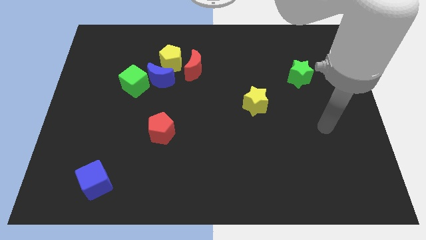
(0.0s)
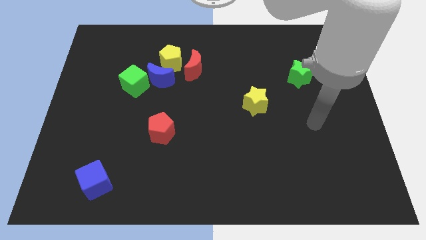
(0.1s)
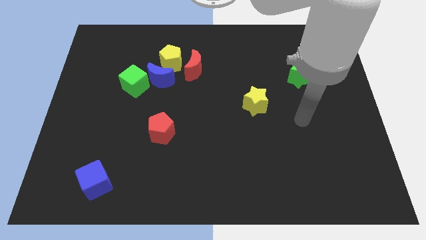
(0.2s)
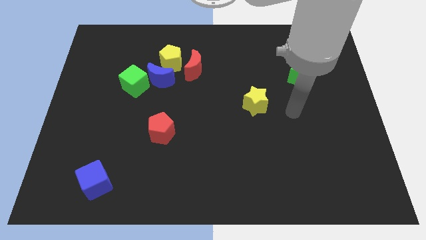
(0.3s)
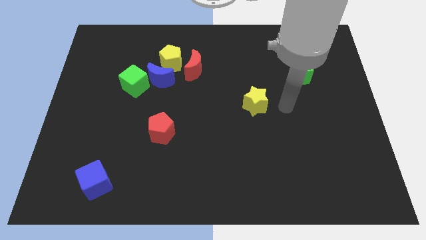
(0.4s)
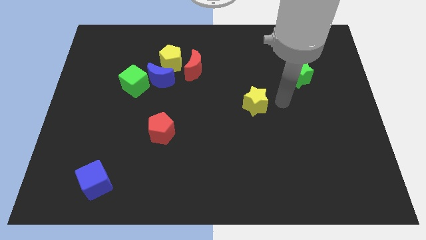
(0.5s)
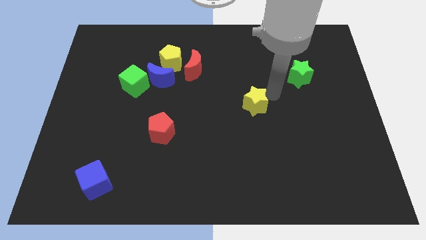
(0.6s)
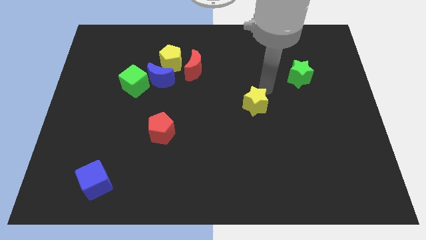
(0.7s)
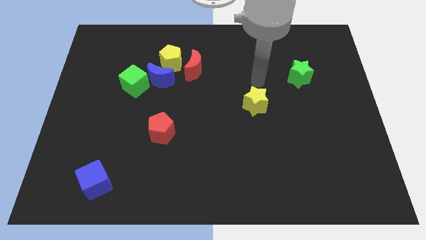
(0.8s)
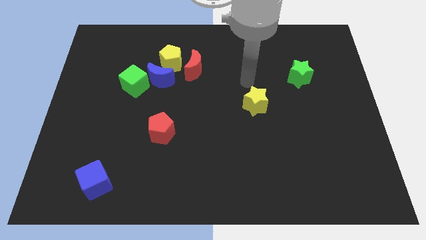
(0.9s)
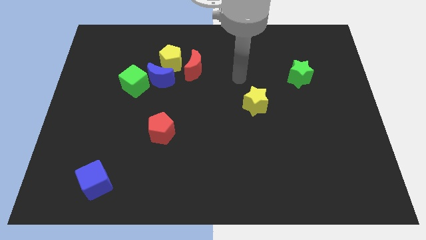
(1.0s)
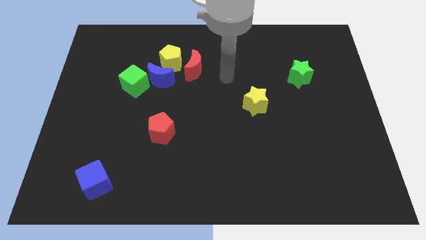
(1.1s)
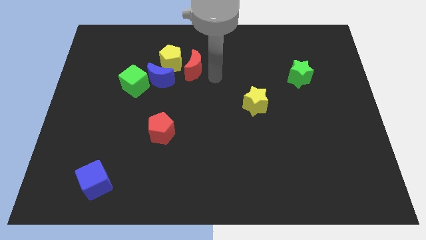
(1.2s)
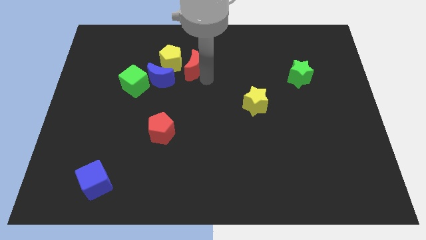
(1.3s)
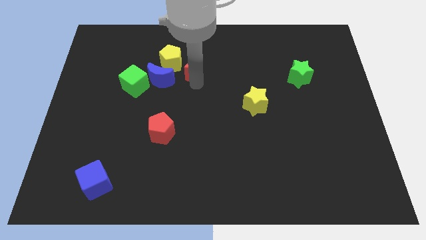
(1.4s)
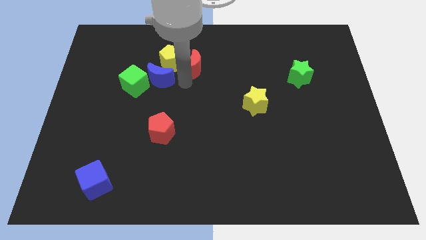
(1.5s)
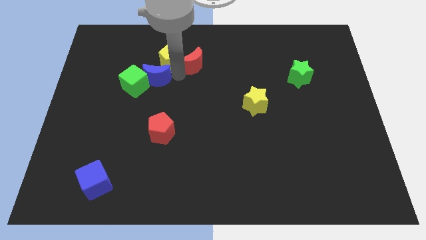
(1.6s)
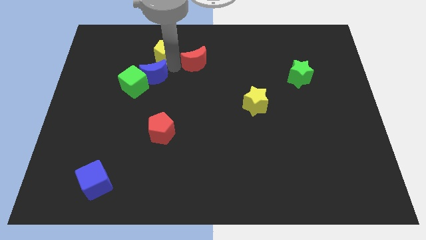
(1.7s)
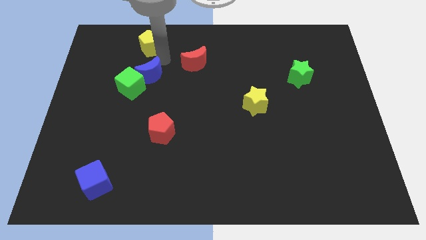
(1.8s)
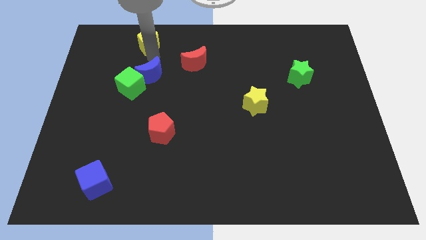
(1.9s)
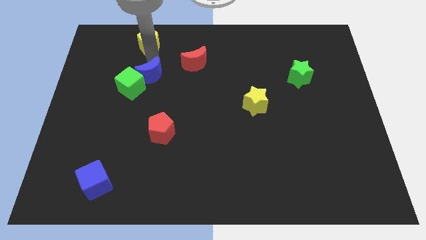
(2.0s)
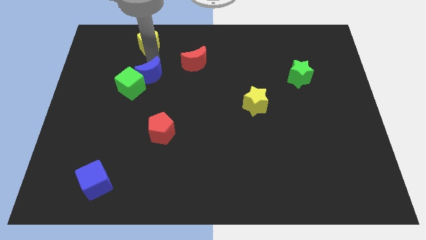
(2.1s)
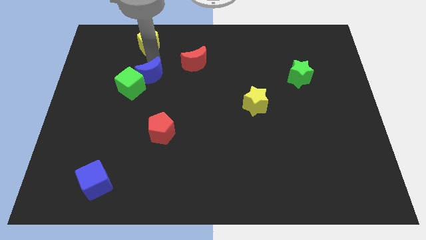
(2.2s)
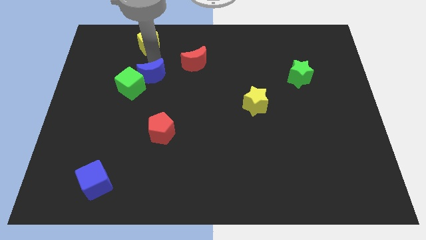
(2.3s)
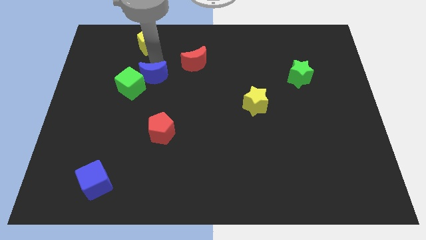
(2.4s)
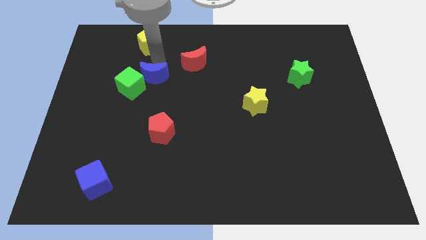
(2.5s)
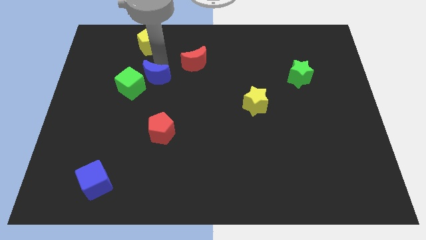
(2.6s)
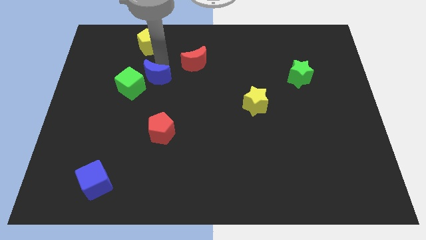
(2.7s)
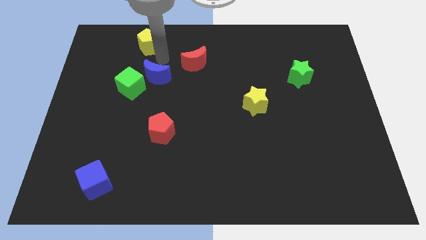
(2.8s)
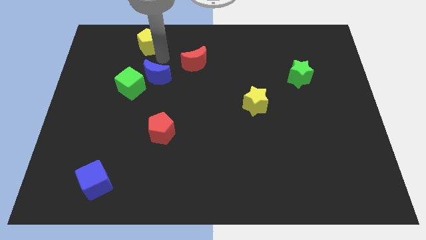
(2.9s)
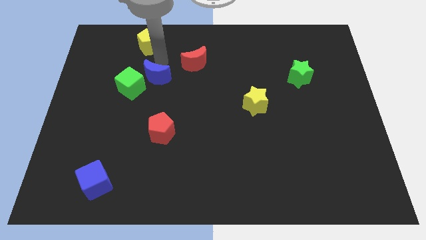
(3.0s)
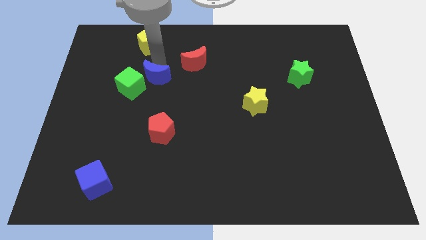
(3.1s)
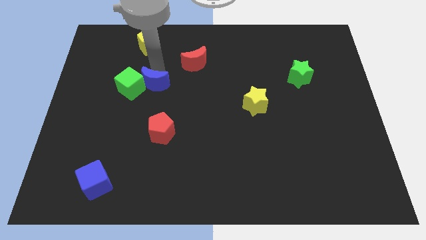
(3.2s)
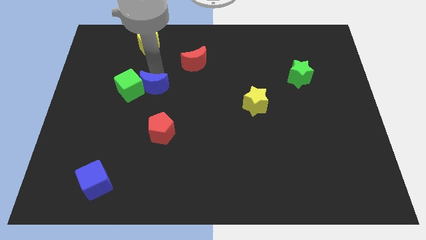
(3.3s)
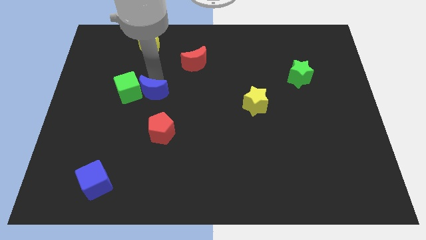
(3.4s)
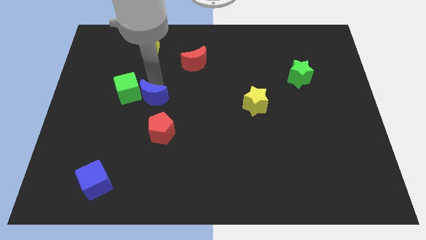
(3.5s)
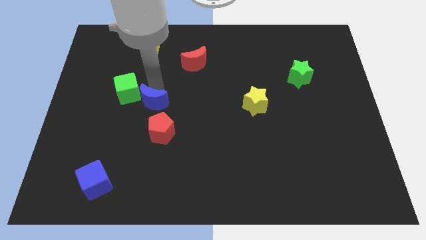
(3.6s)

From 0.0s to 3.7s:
move the blue moon downwards somewhat

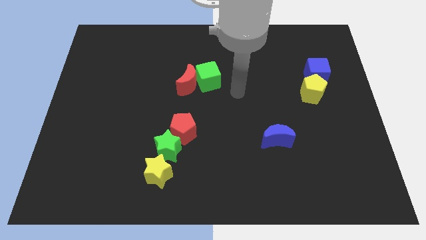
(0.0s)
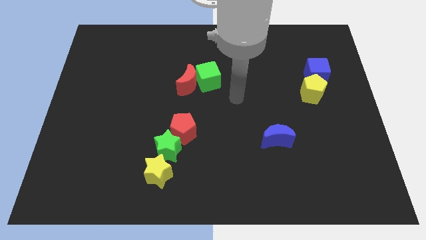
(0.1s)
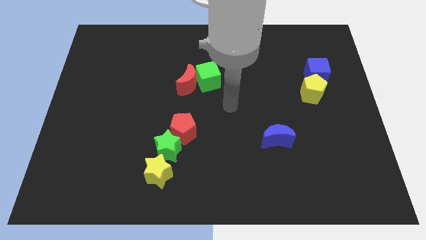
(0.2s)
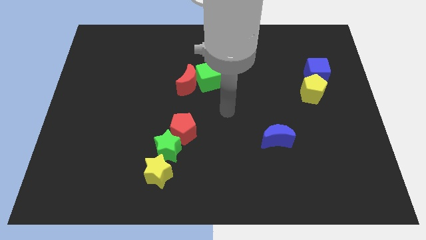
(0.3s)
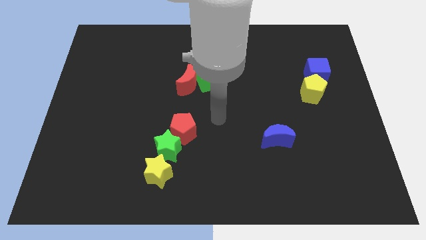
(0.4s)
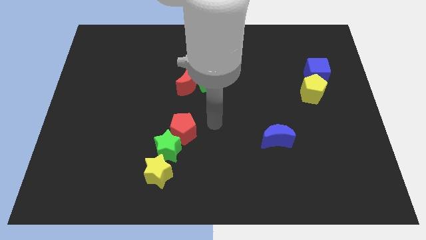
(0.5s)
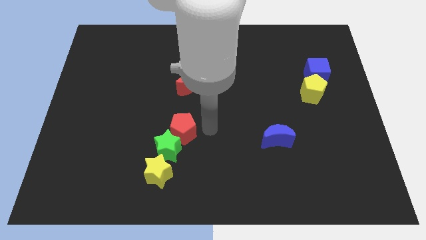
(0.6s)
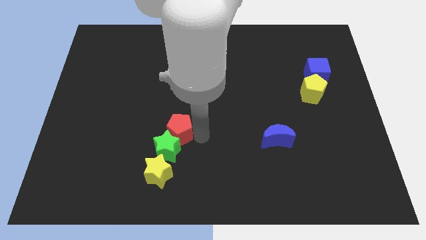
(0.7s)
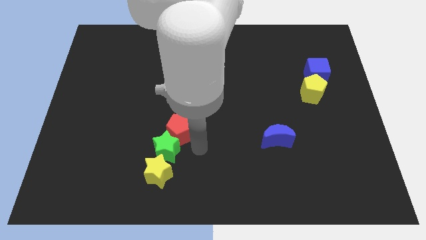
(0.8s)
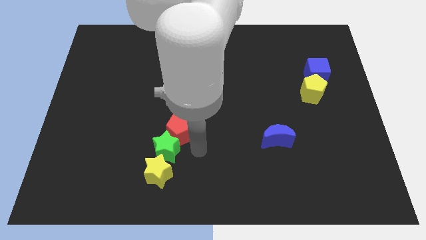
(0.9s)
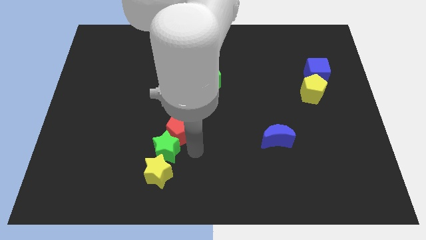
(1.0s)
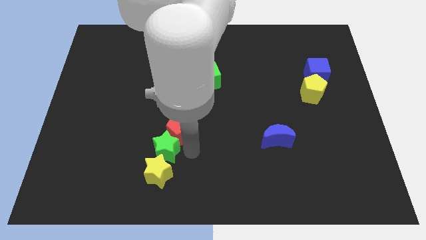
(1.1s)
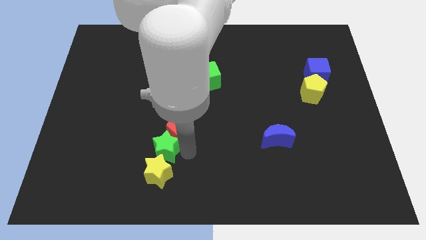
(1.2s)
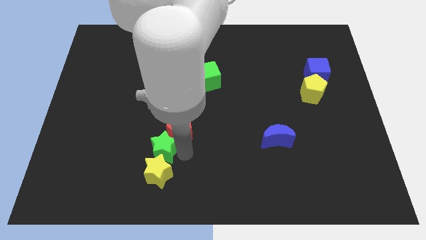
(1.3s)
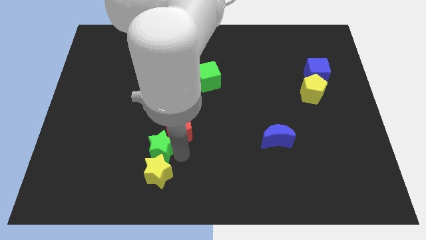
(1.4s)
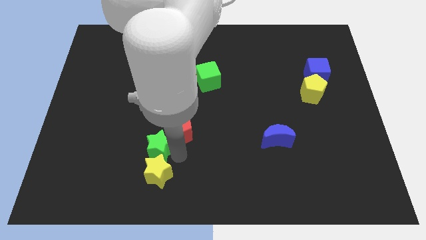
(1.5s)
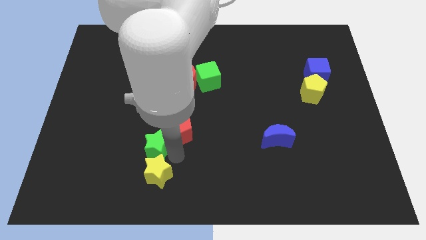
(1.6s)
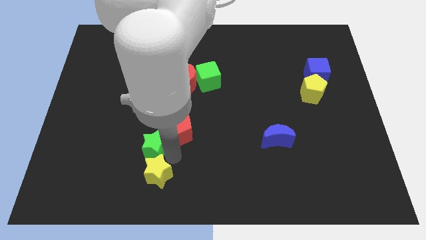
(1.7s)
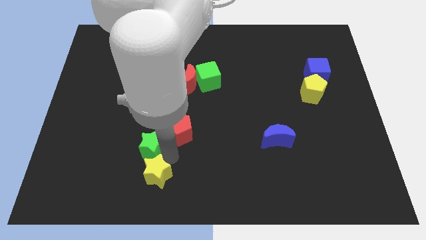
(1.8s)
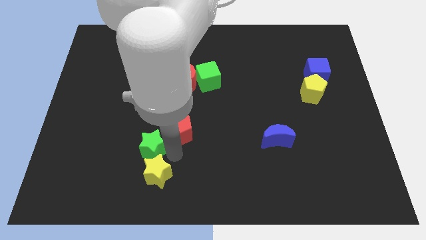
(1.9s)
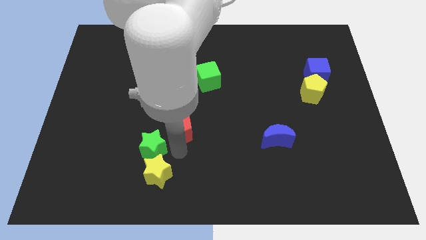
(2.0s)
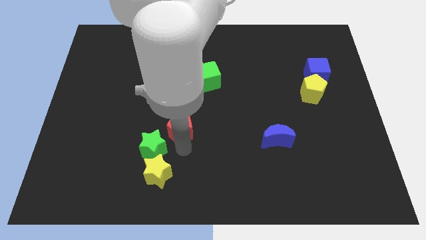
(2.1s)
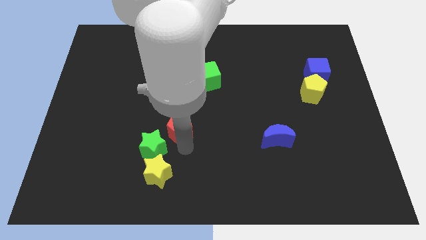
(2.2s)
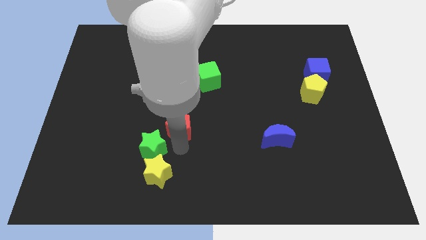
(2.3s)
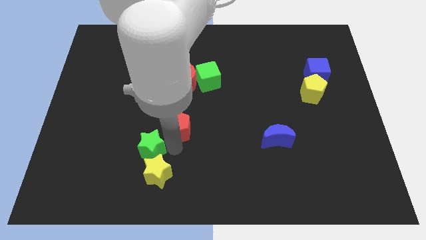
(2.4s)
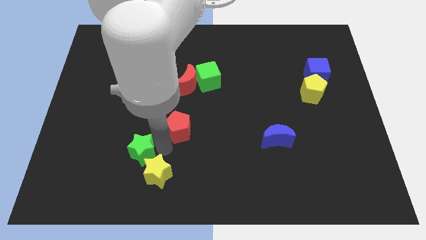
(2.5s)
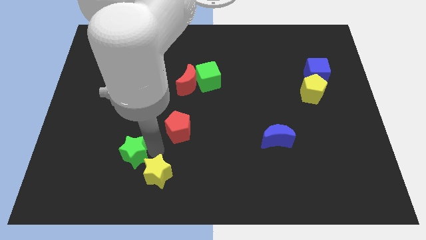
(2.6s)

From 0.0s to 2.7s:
move the green star left slightly

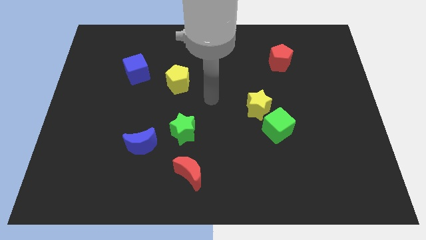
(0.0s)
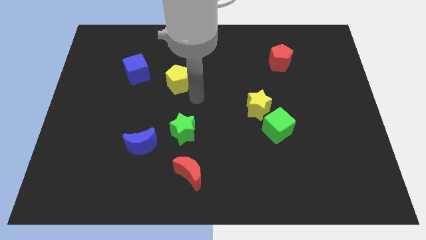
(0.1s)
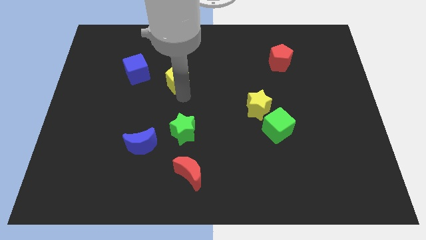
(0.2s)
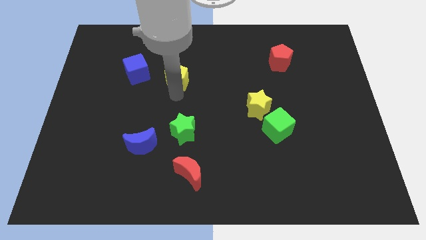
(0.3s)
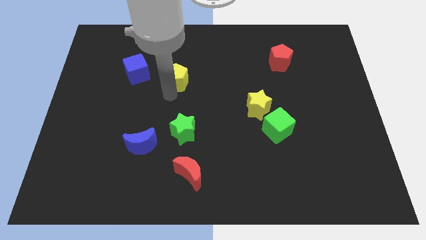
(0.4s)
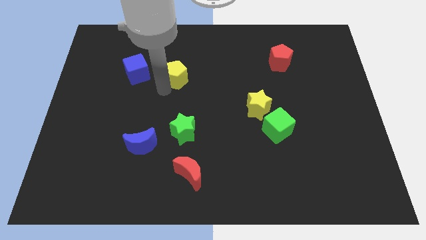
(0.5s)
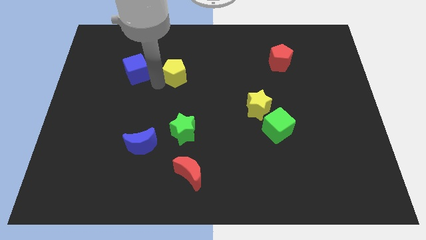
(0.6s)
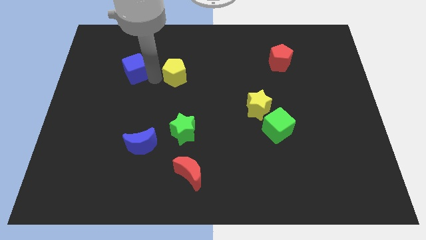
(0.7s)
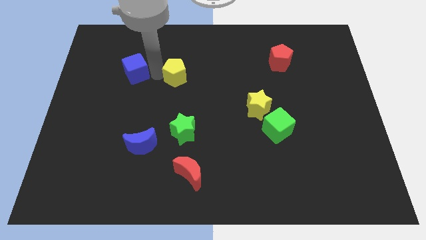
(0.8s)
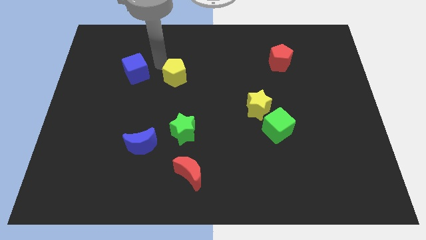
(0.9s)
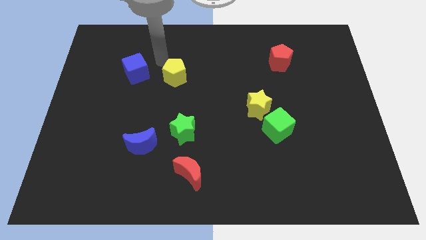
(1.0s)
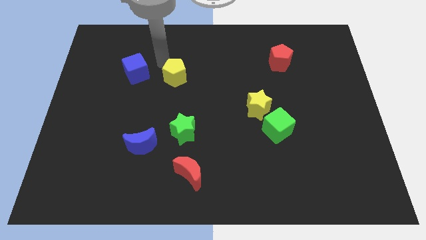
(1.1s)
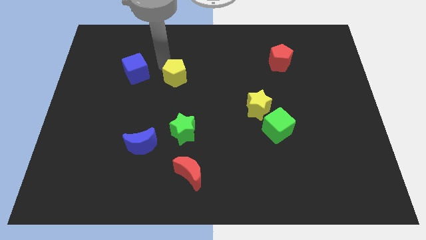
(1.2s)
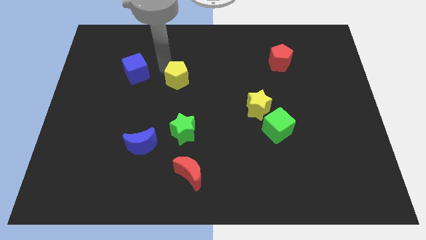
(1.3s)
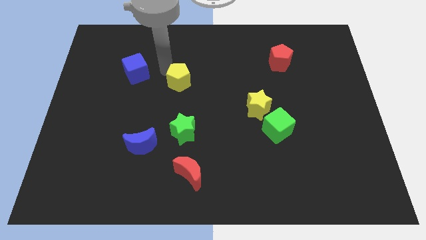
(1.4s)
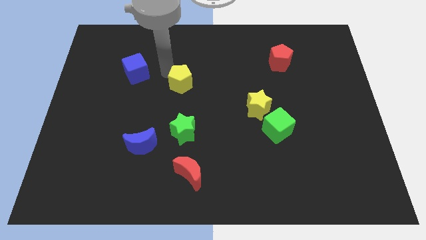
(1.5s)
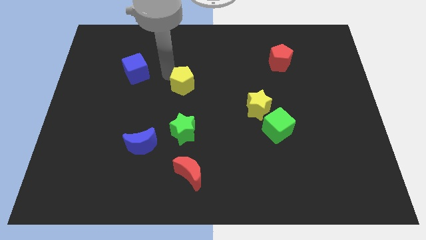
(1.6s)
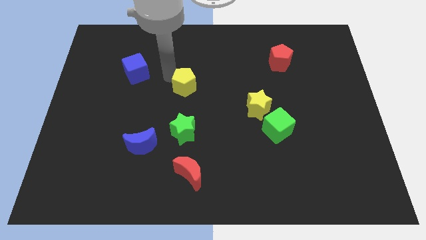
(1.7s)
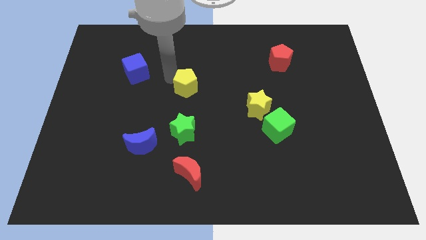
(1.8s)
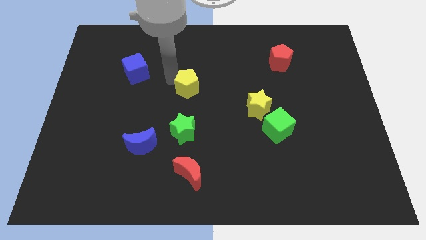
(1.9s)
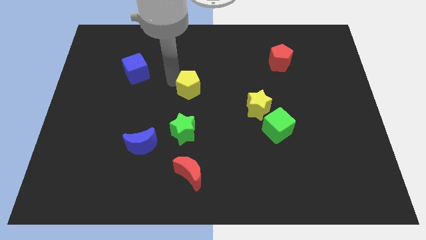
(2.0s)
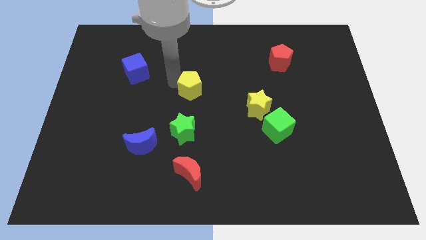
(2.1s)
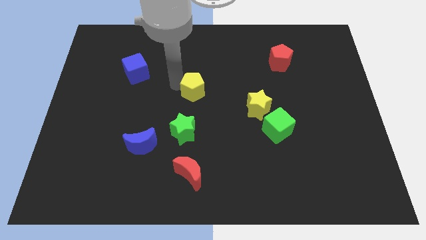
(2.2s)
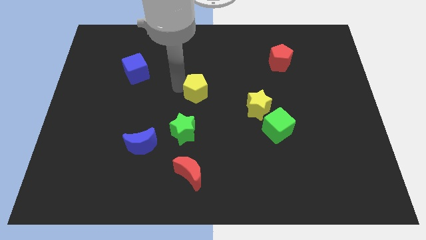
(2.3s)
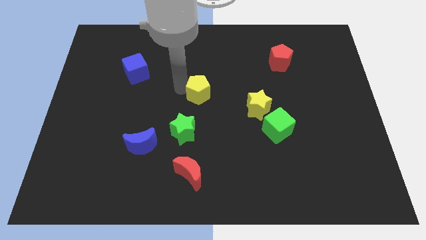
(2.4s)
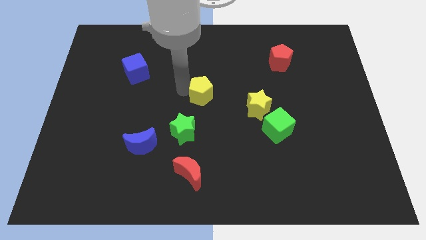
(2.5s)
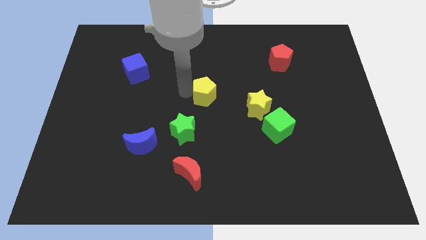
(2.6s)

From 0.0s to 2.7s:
slide the yellow pentagon somewhat downwards and to the right
